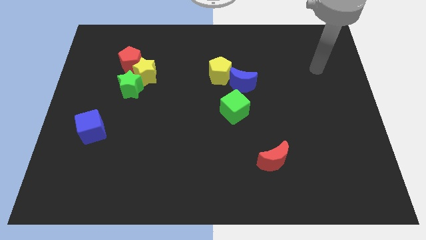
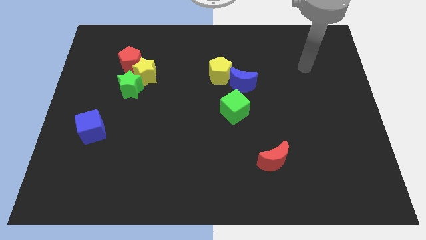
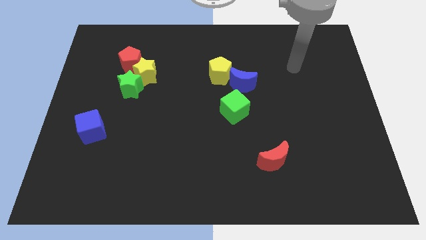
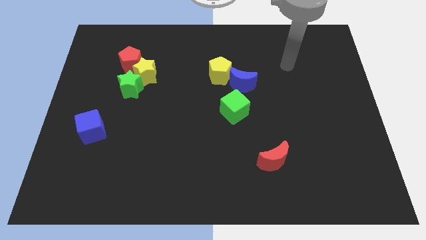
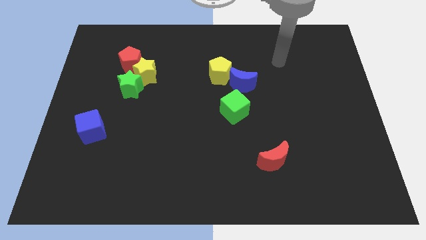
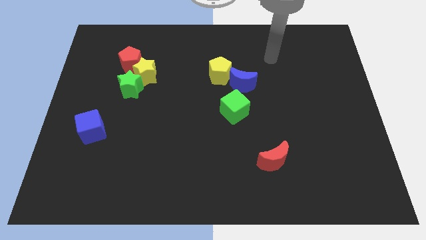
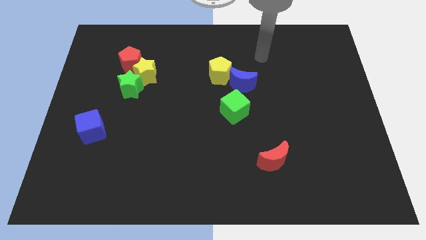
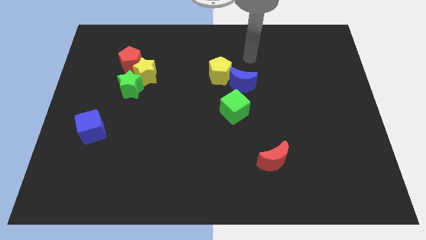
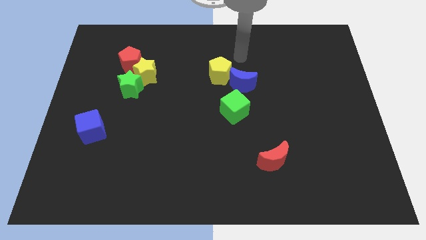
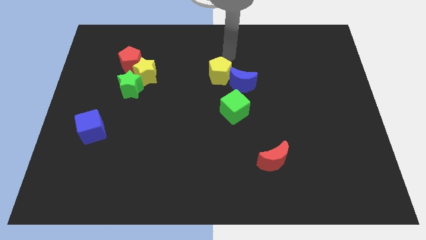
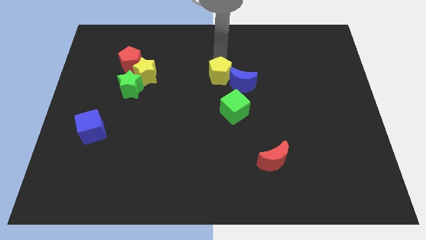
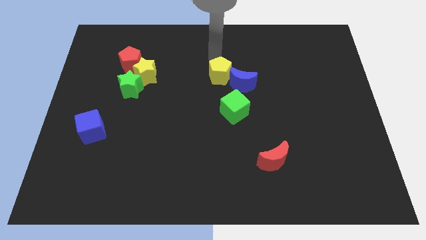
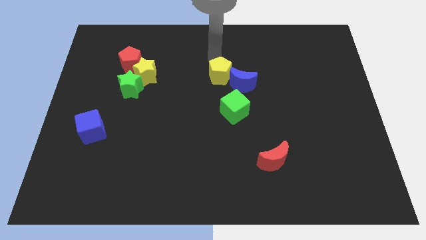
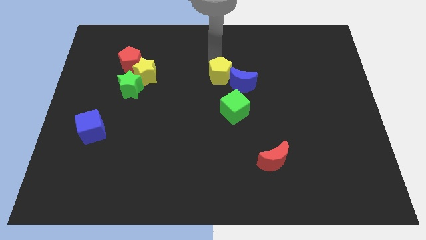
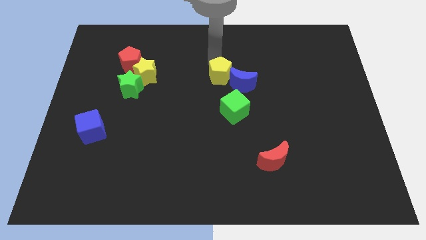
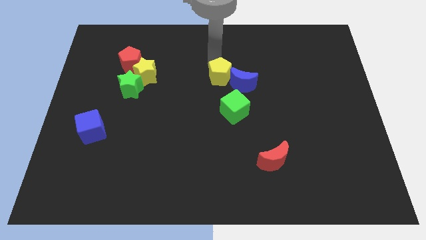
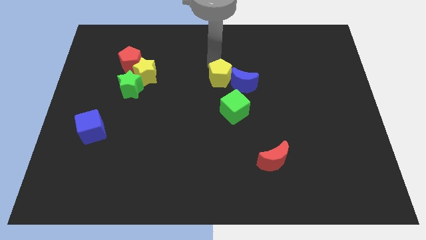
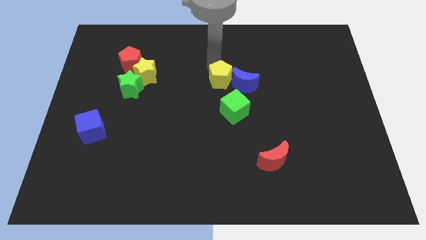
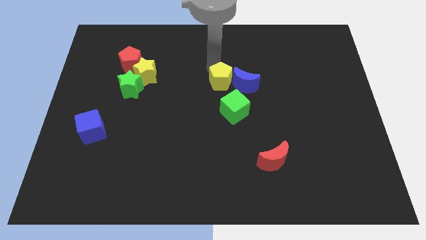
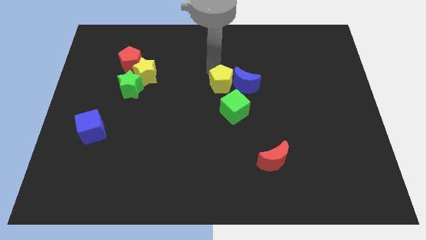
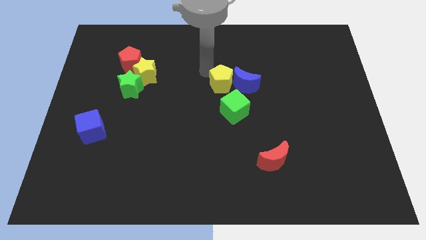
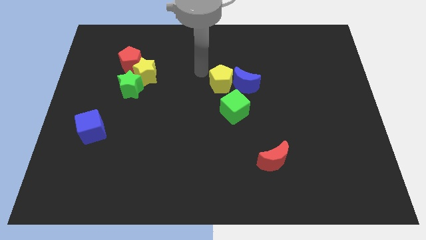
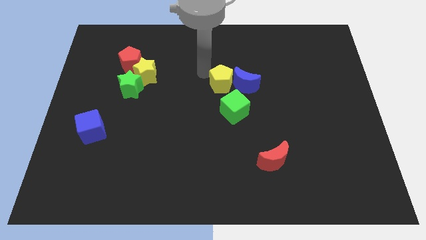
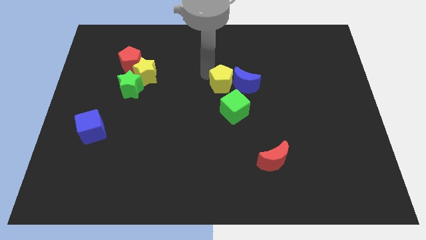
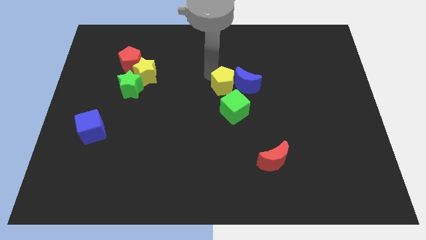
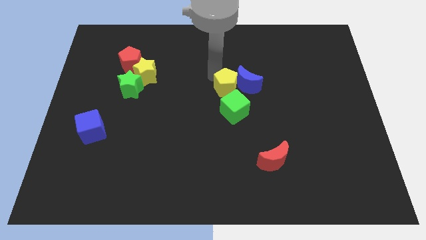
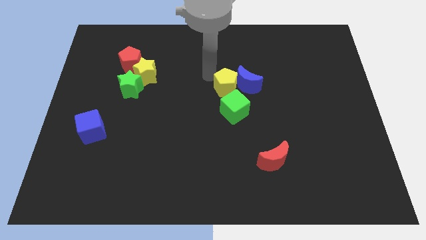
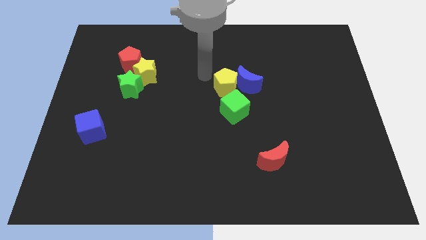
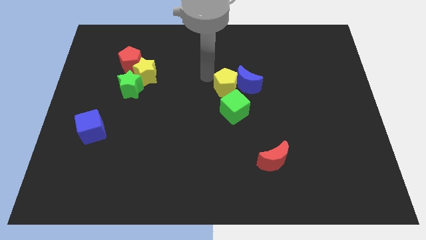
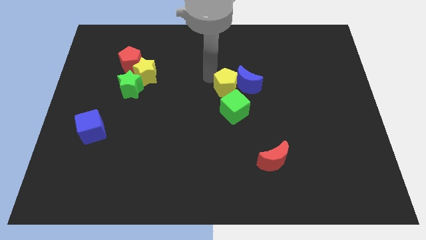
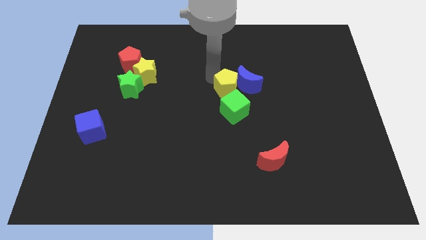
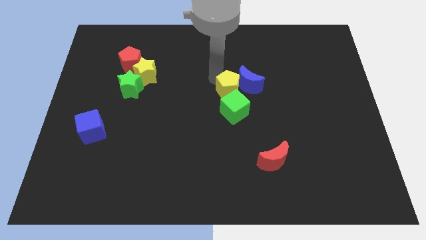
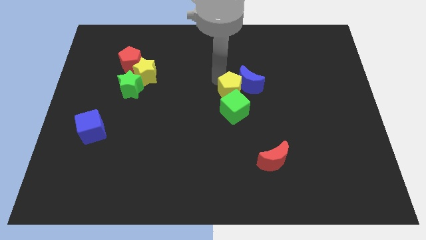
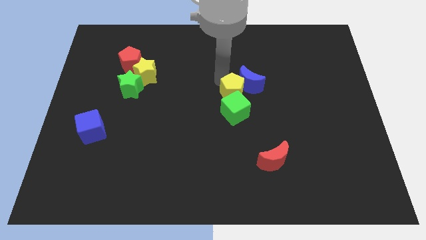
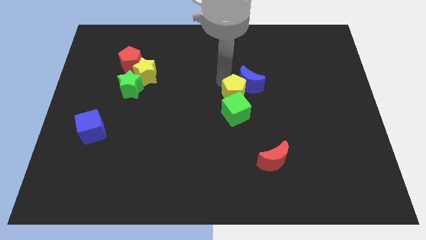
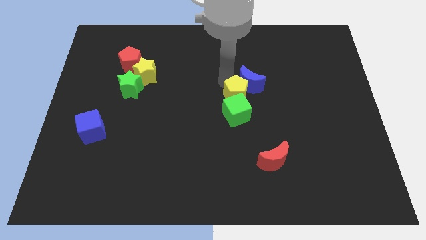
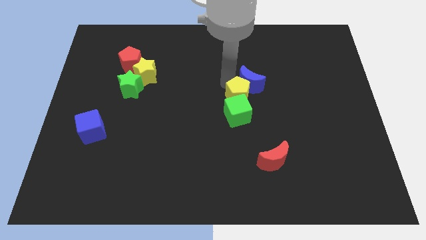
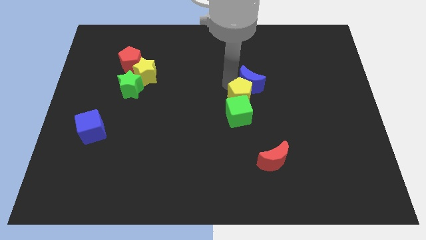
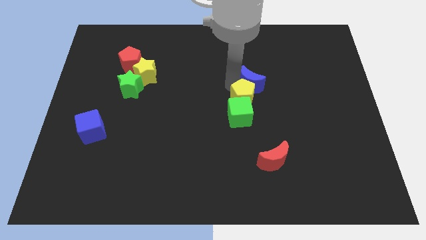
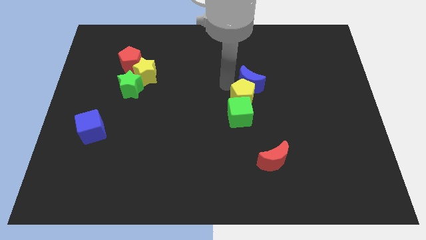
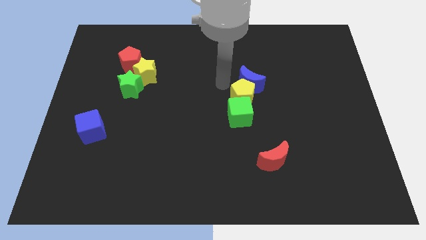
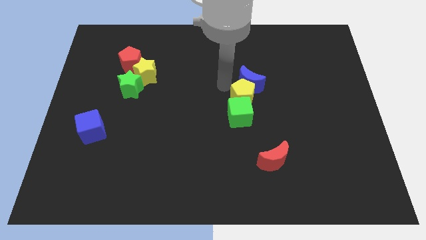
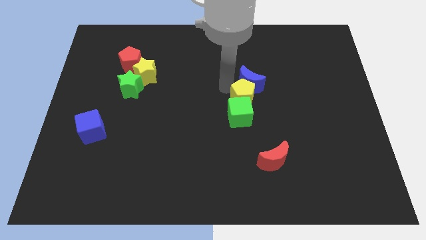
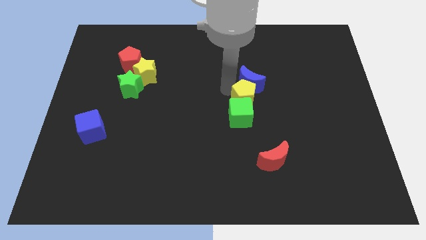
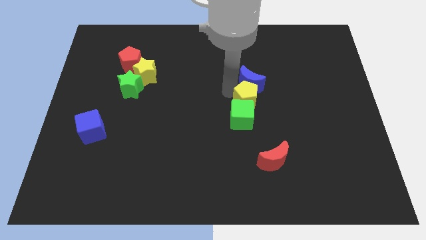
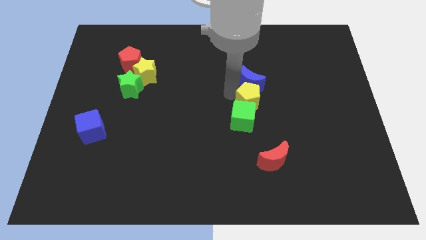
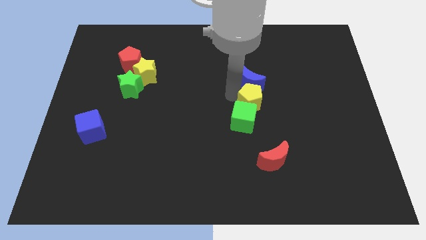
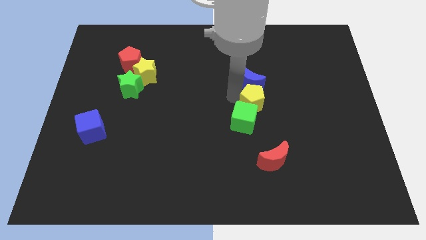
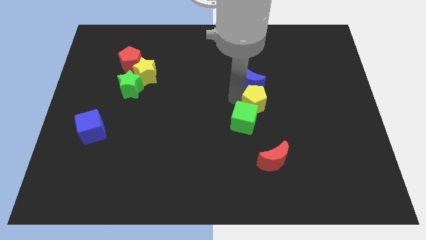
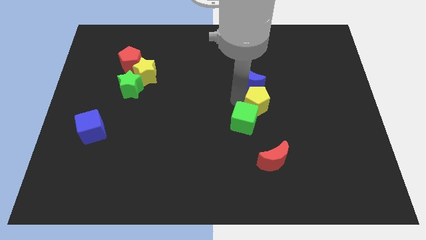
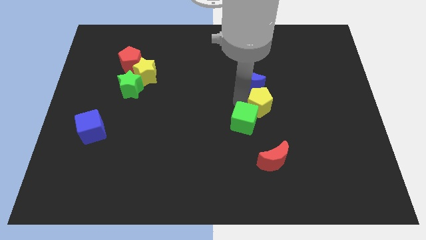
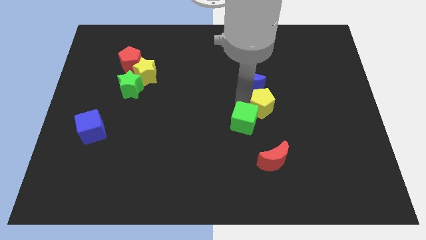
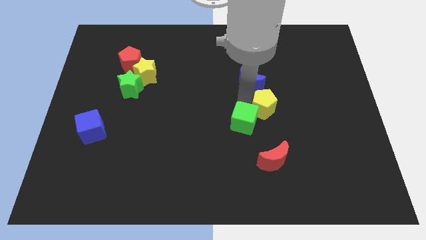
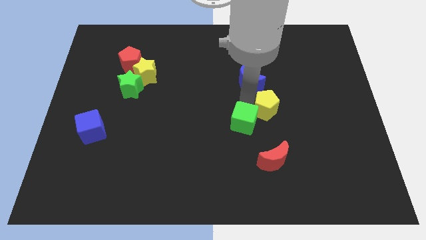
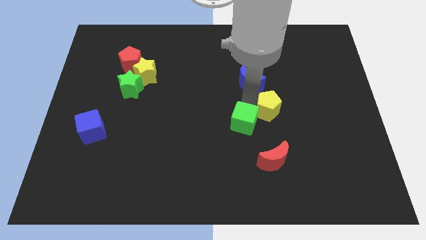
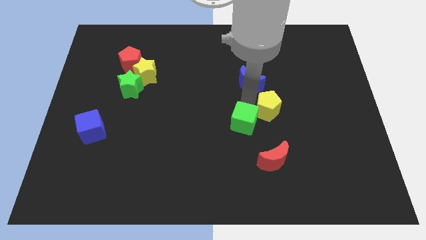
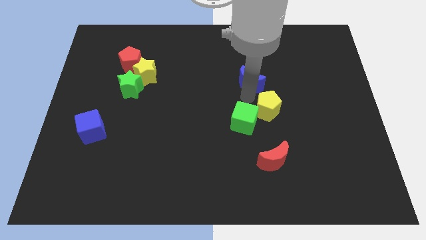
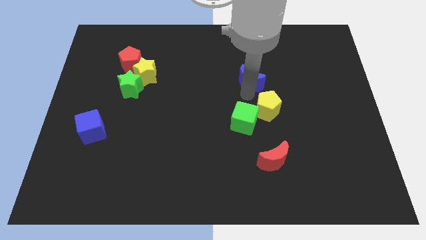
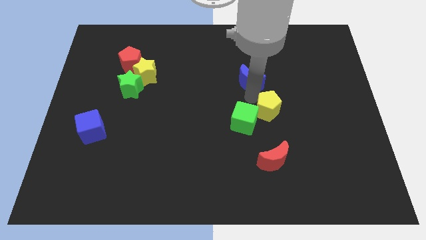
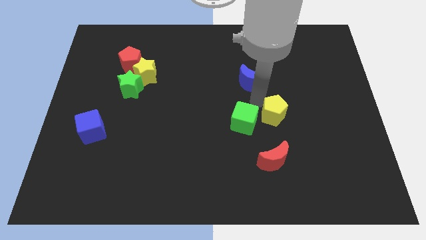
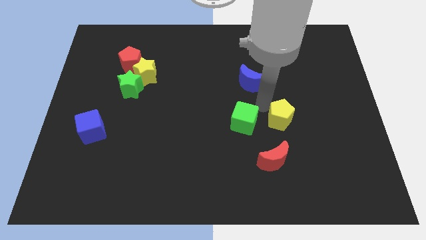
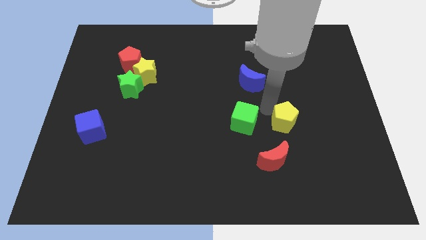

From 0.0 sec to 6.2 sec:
slide the yellow pentagon down and right

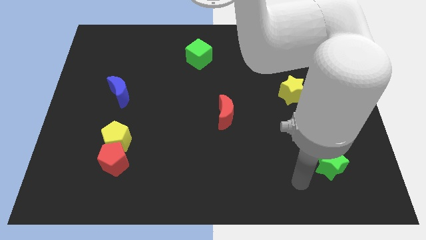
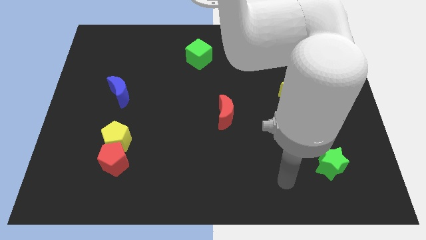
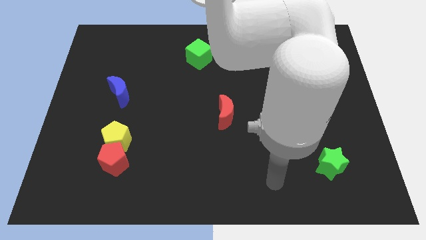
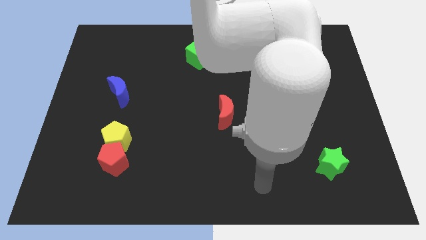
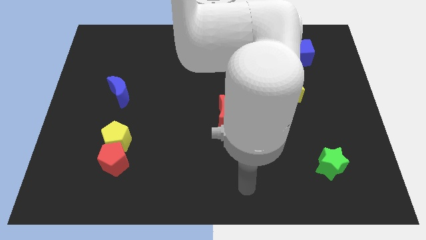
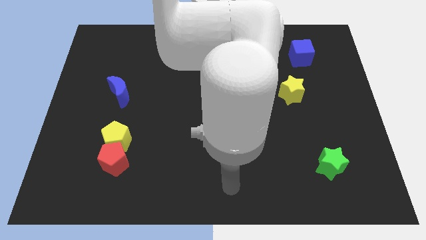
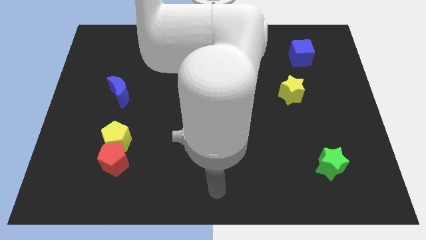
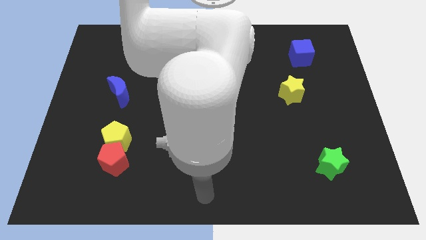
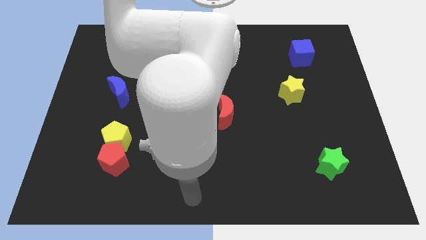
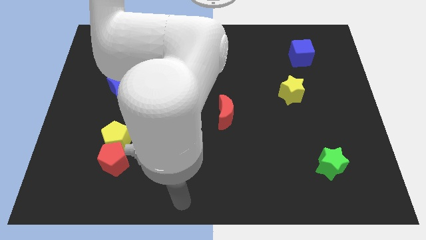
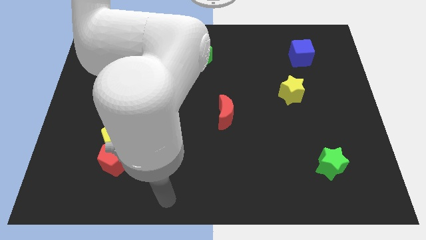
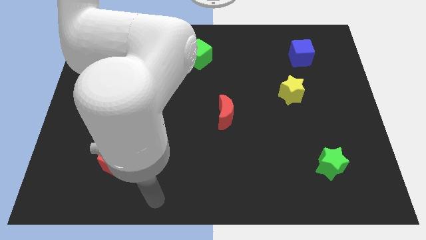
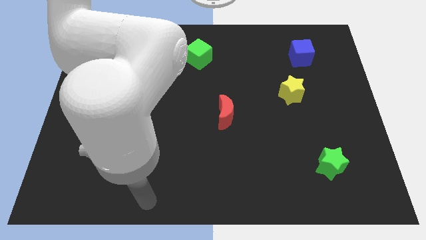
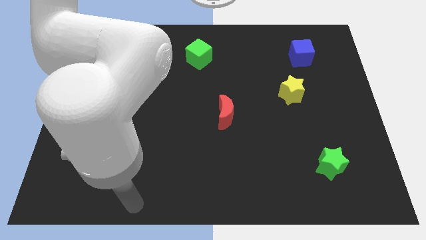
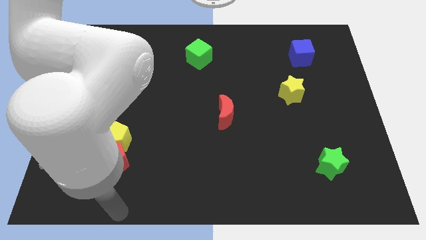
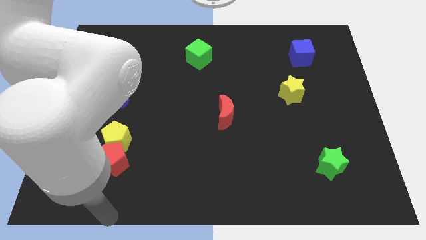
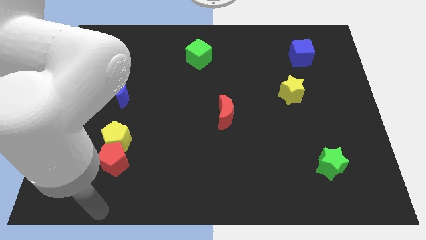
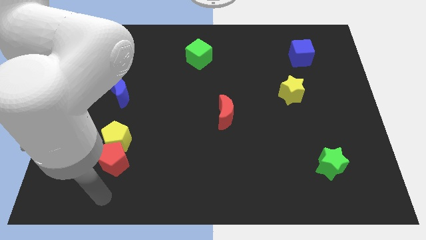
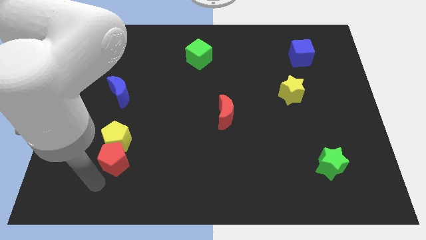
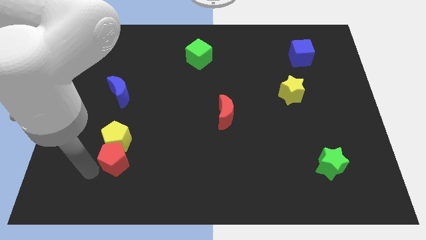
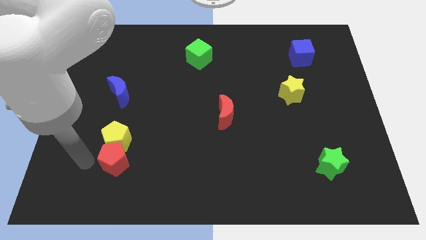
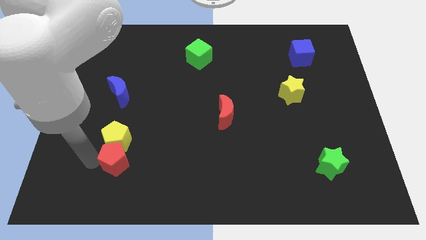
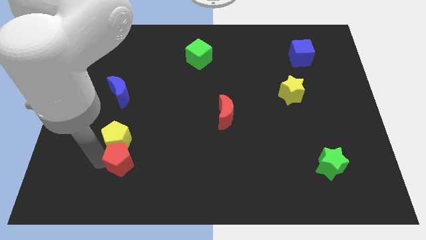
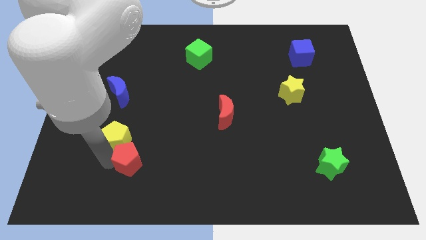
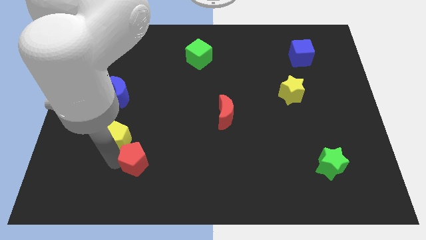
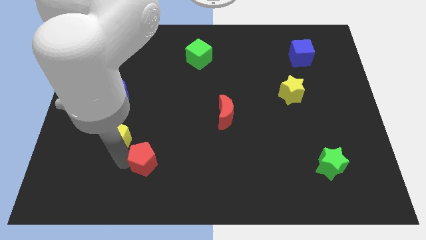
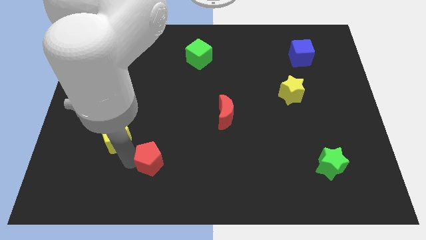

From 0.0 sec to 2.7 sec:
move the red pentagon slightly right
